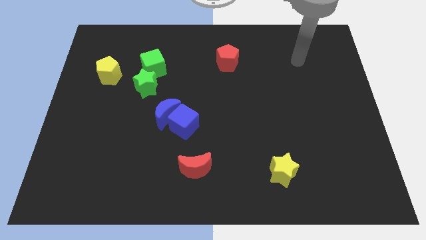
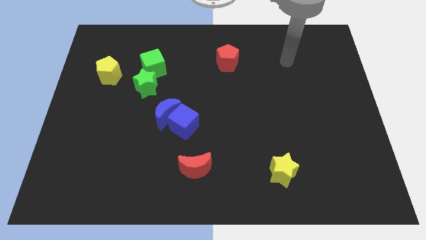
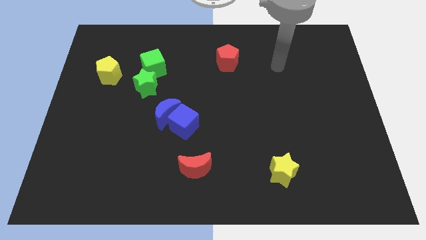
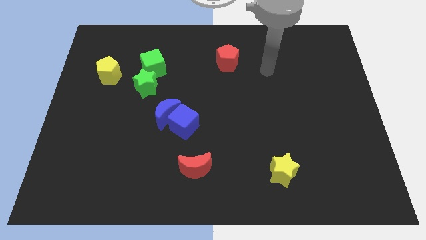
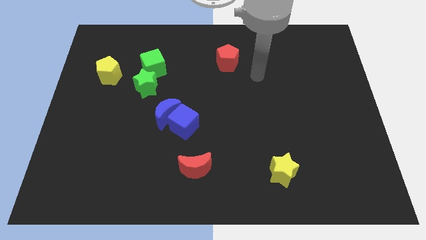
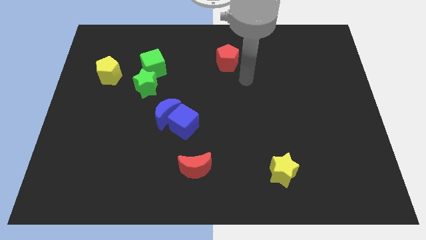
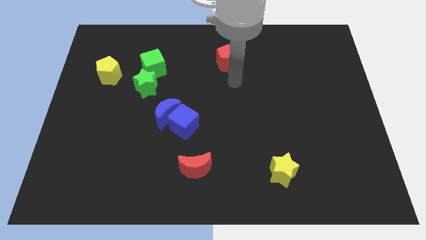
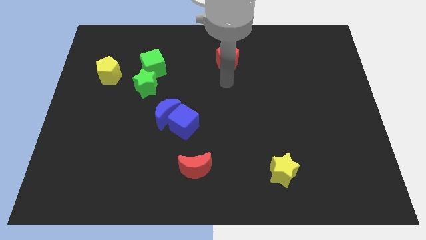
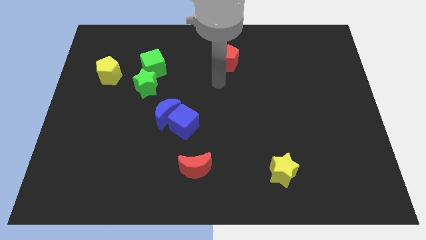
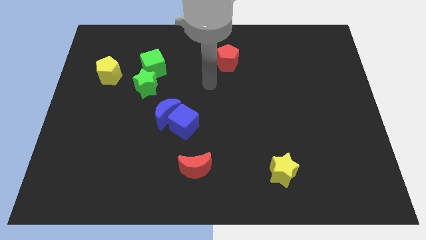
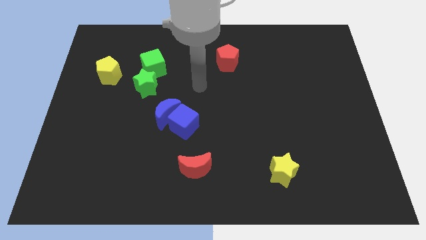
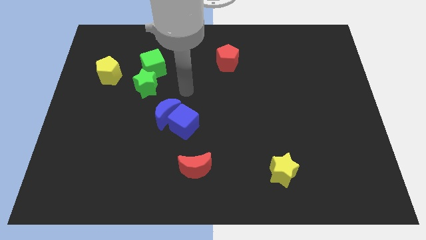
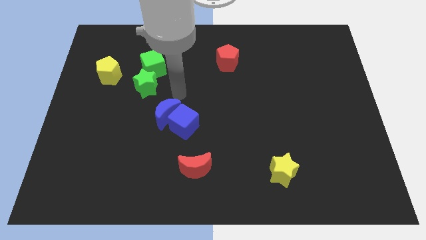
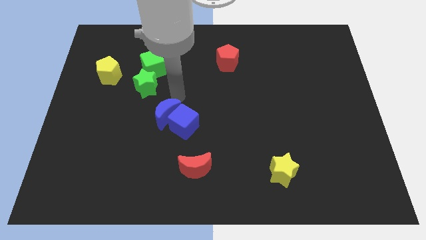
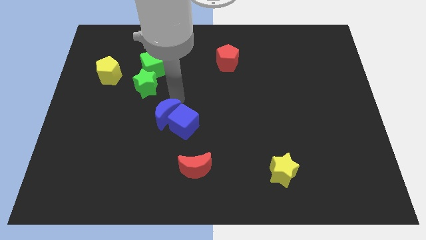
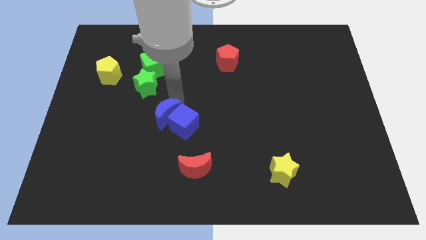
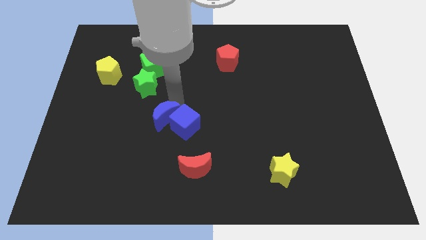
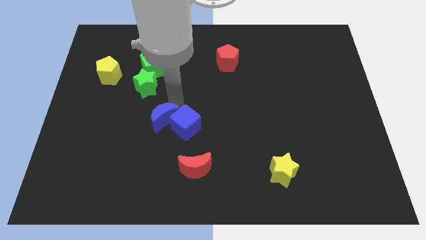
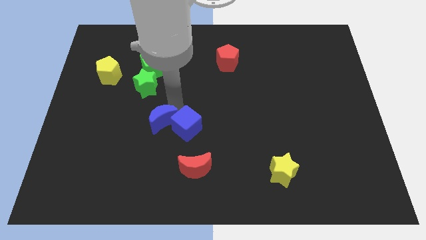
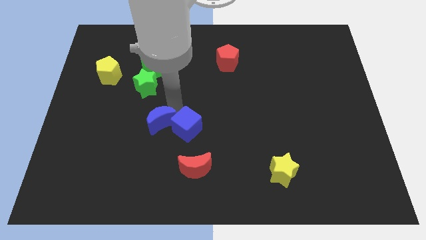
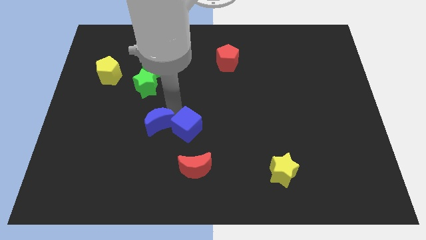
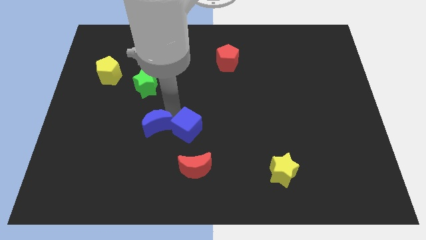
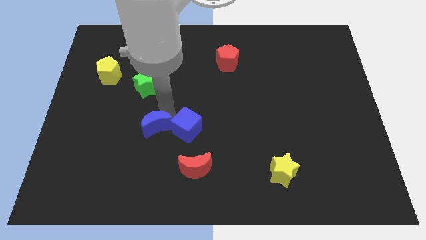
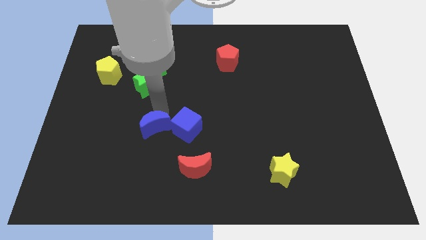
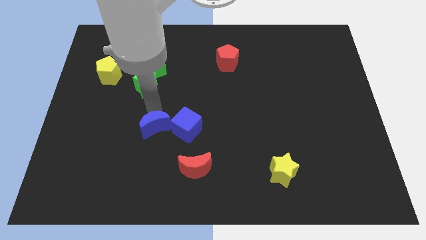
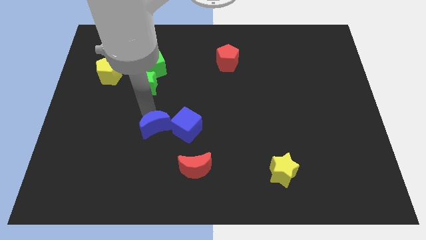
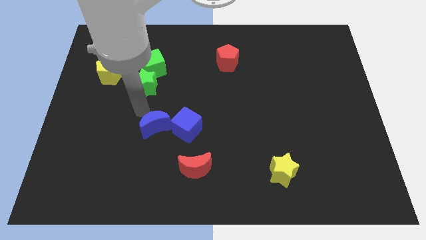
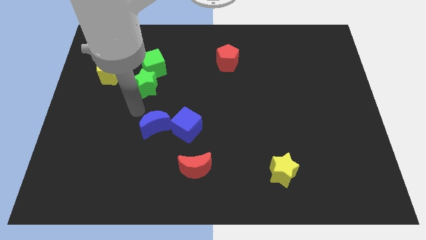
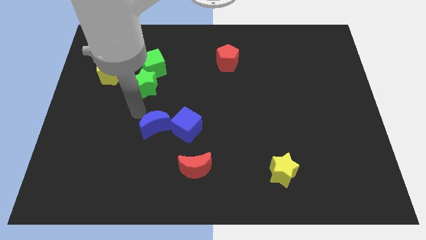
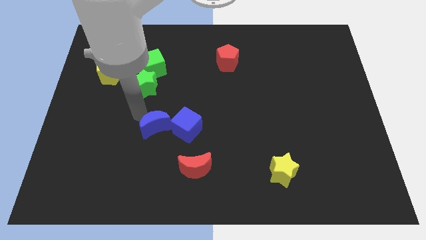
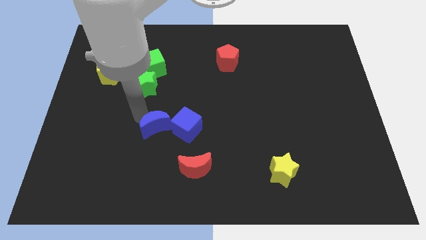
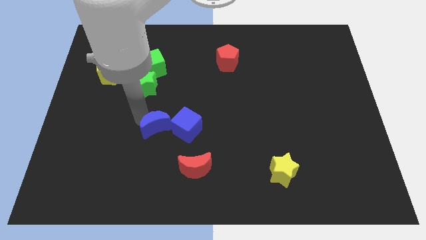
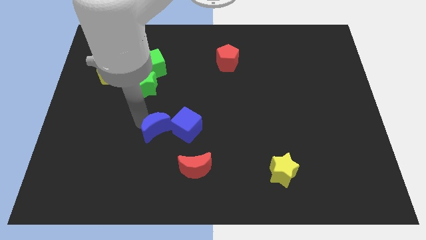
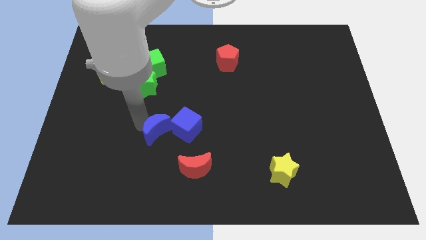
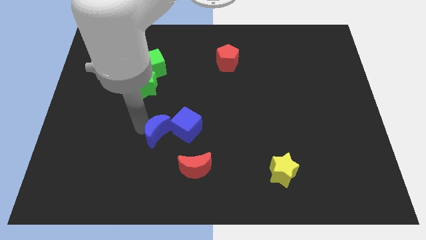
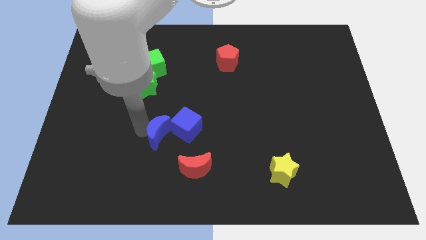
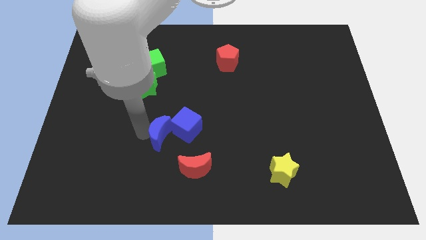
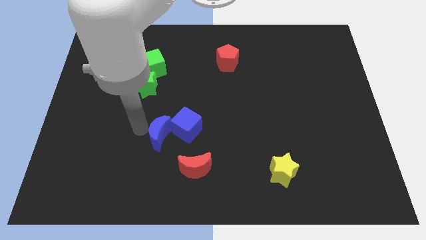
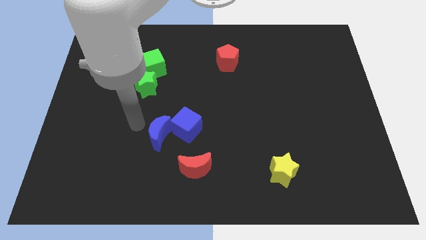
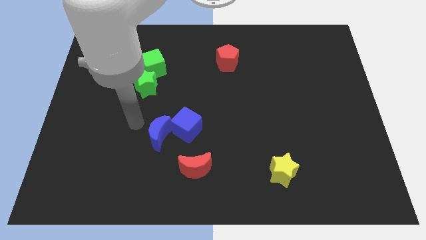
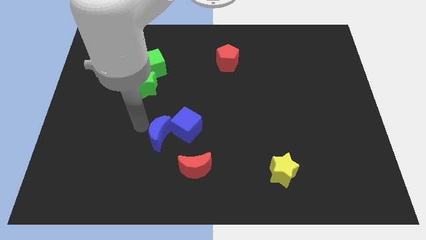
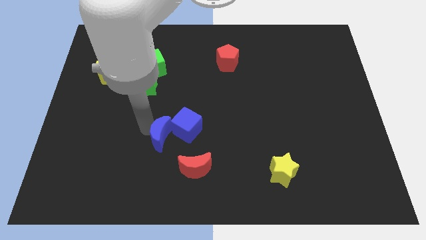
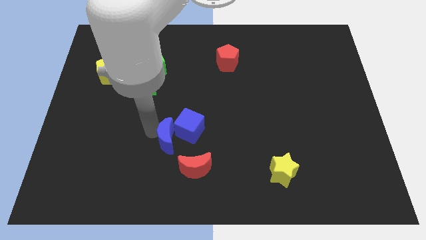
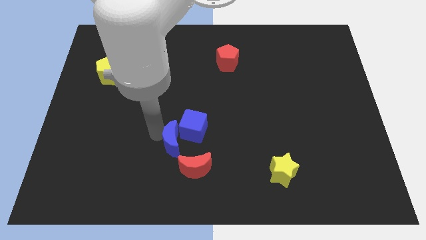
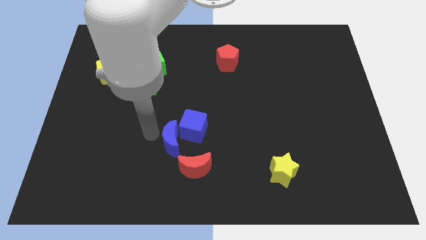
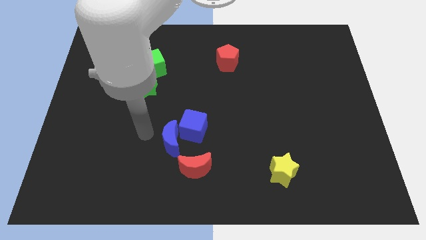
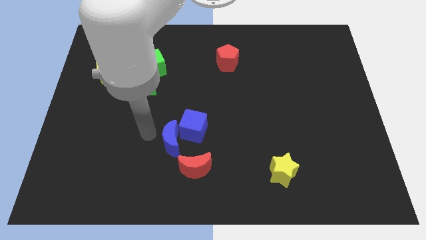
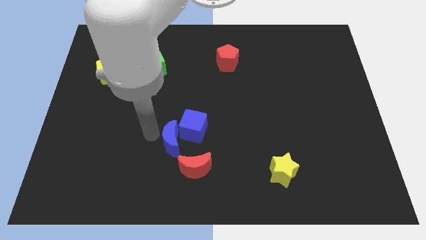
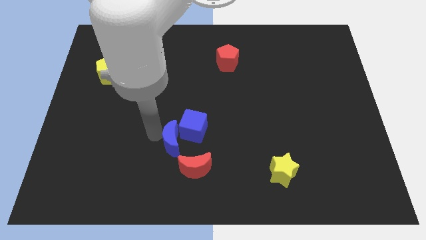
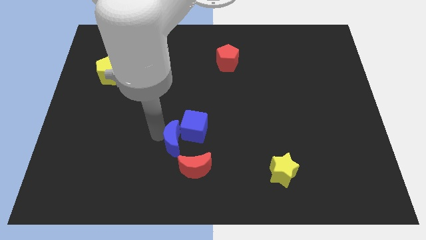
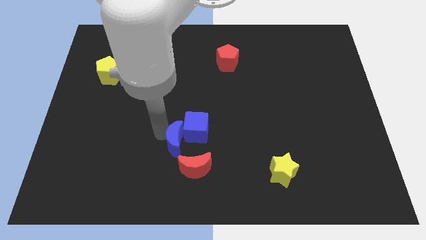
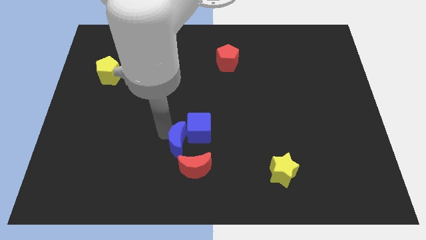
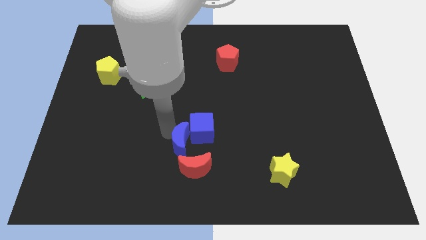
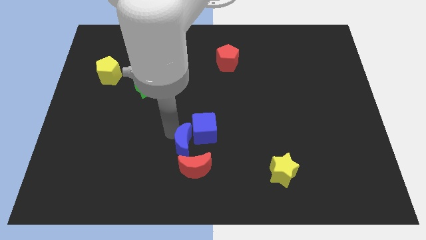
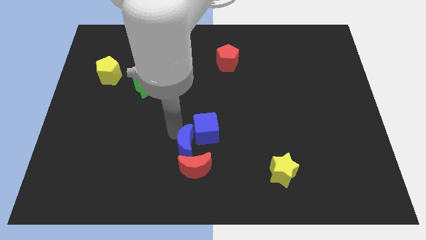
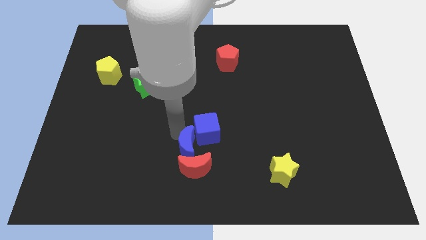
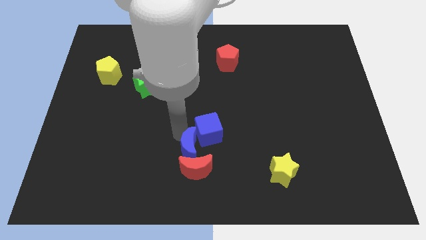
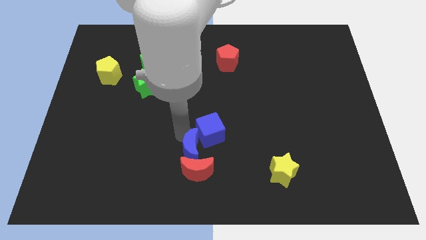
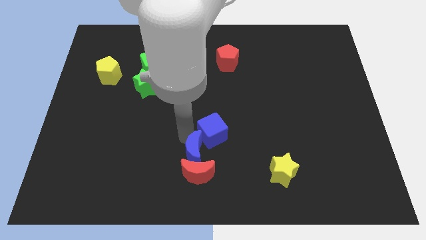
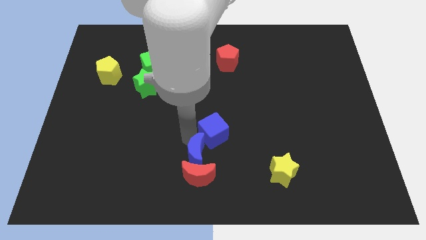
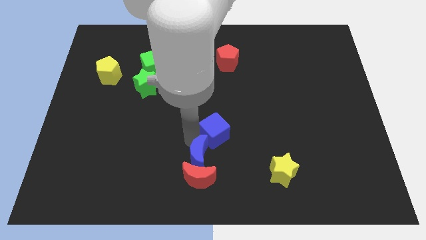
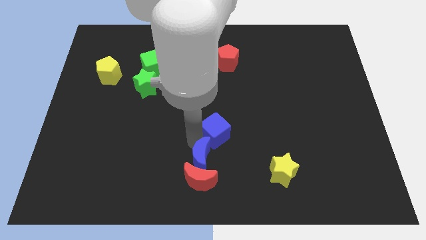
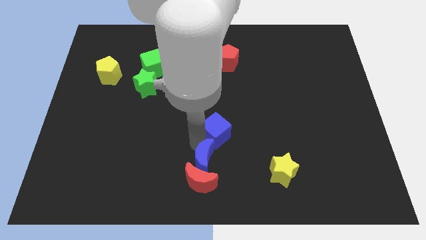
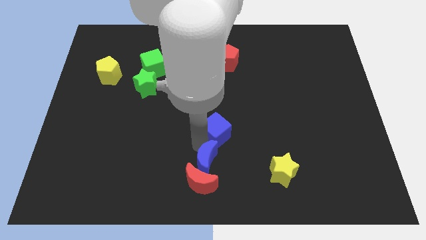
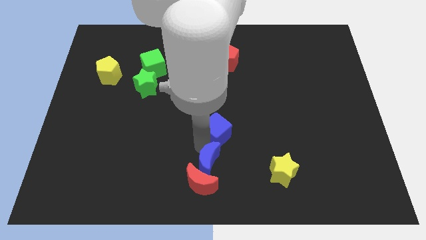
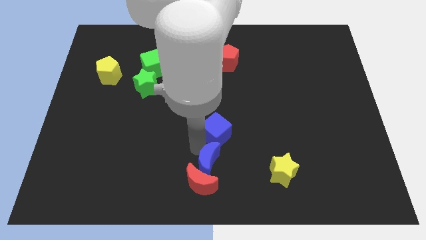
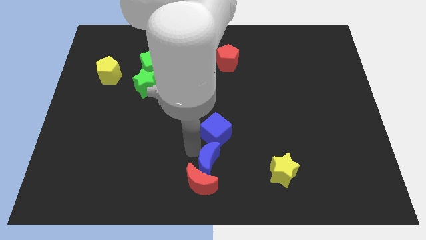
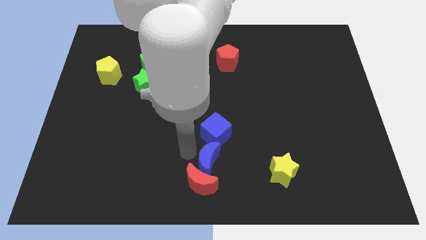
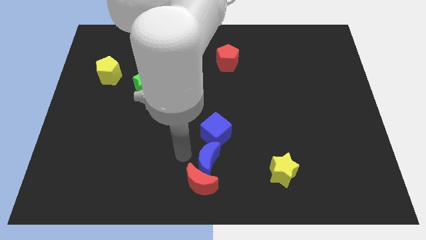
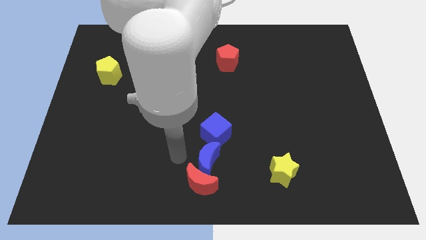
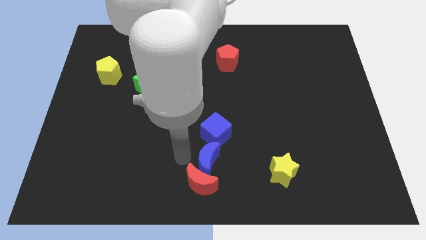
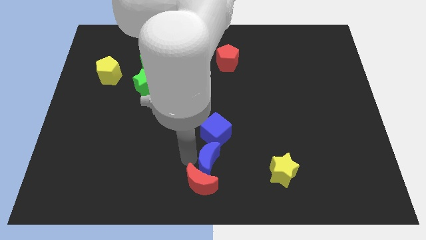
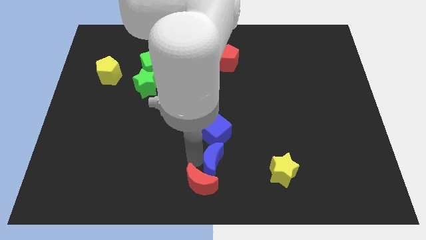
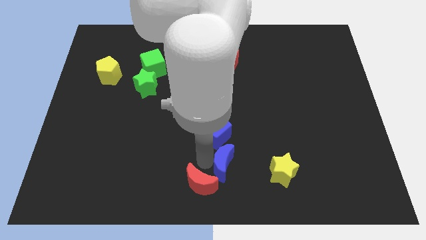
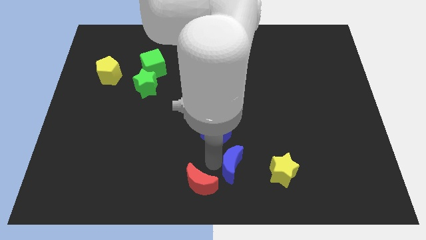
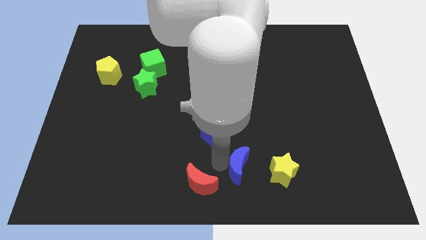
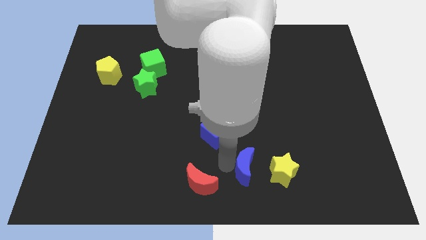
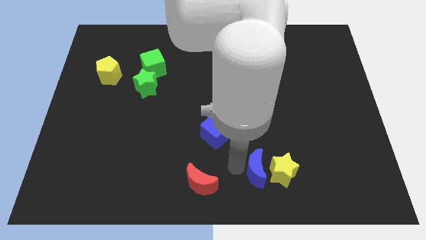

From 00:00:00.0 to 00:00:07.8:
move the blue moon close to the yellow star
